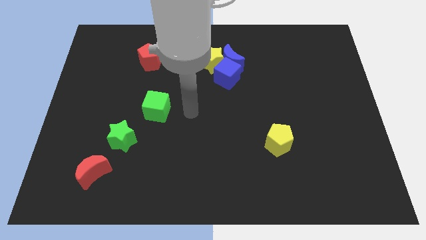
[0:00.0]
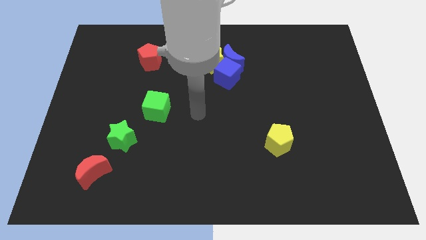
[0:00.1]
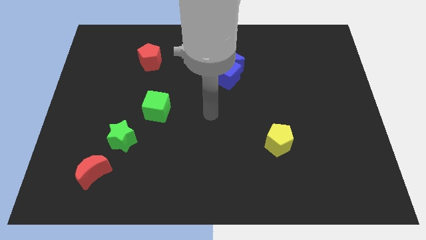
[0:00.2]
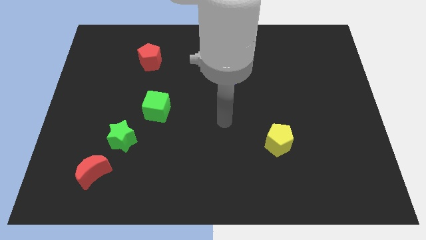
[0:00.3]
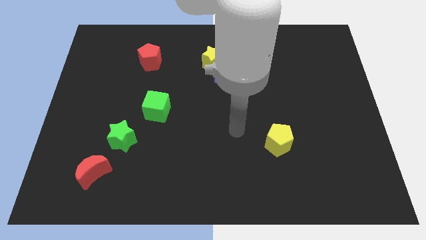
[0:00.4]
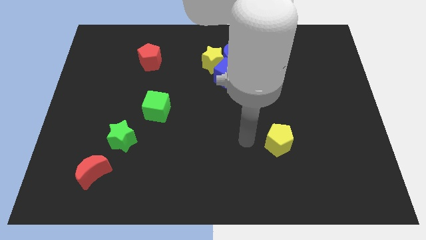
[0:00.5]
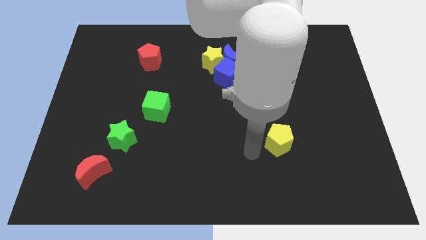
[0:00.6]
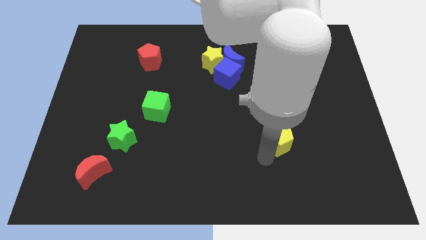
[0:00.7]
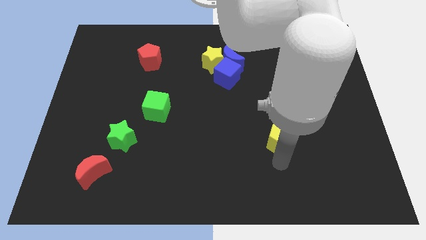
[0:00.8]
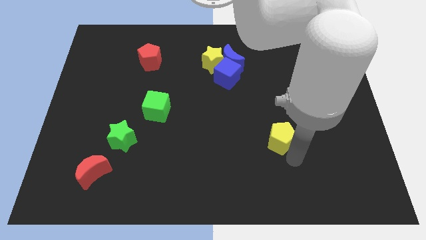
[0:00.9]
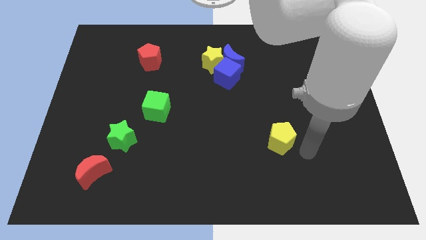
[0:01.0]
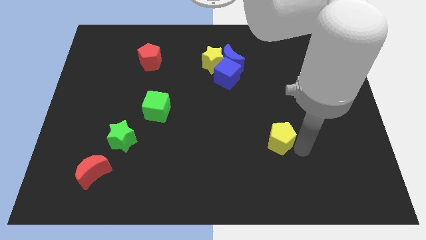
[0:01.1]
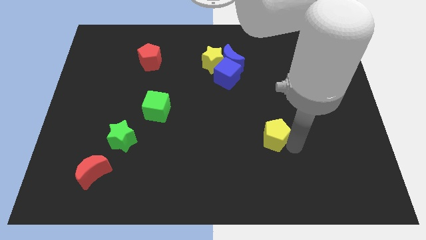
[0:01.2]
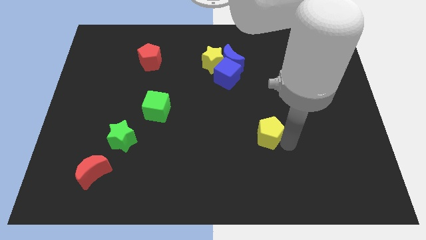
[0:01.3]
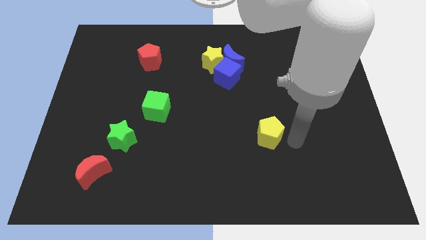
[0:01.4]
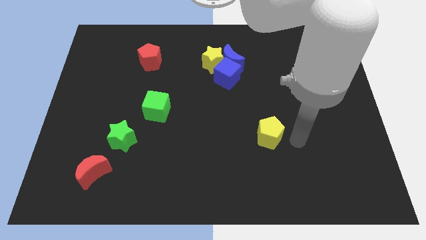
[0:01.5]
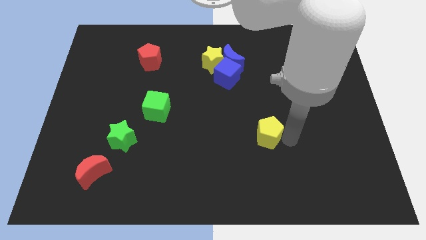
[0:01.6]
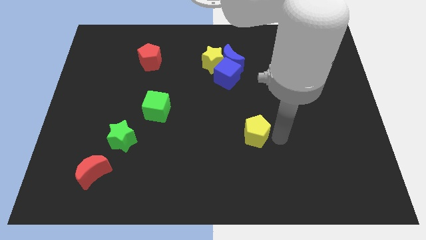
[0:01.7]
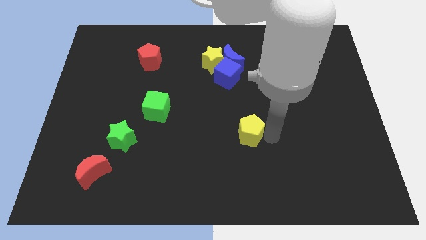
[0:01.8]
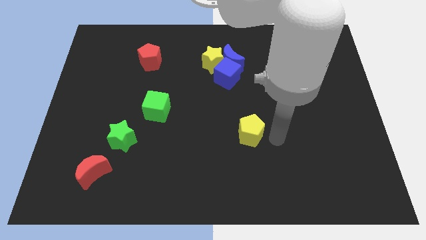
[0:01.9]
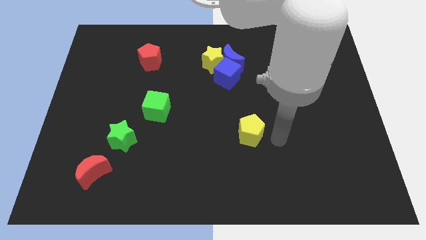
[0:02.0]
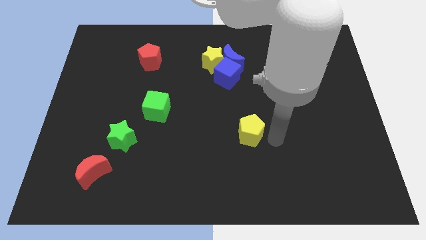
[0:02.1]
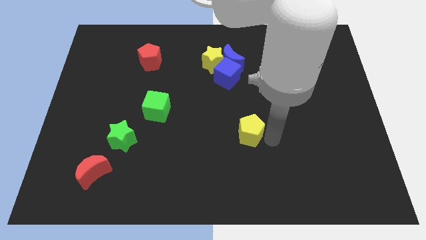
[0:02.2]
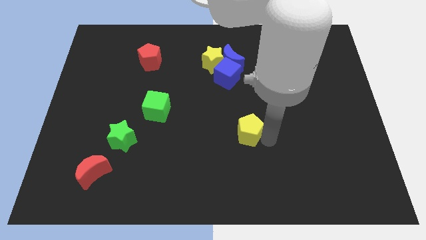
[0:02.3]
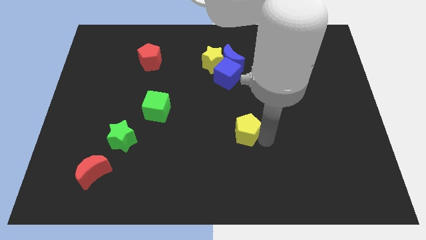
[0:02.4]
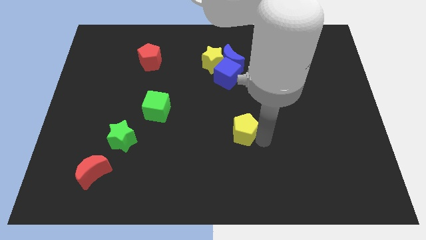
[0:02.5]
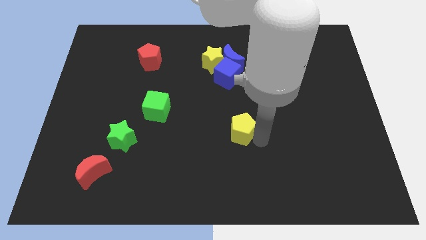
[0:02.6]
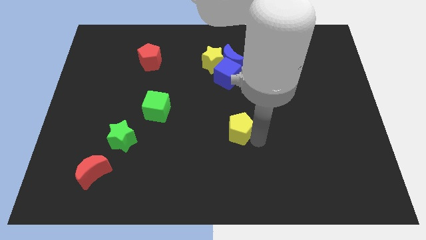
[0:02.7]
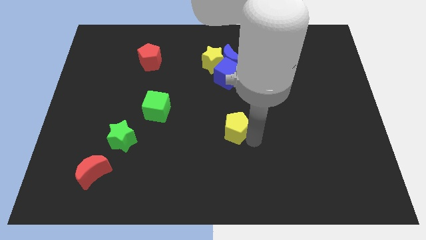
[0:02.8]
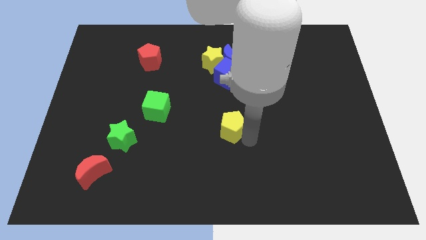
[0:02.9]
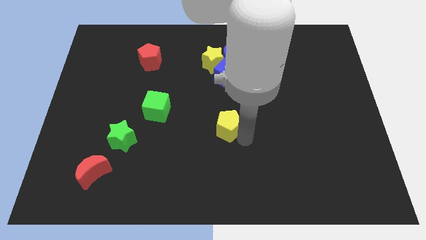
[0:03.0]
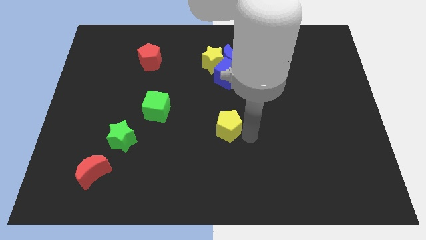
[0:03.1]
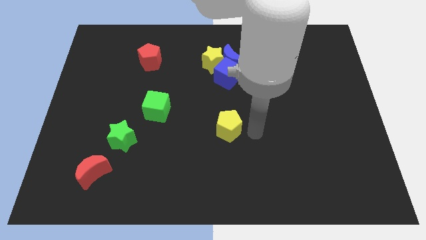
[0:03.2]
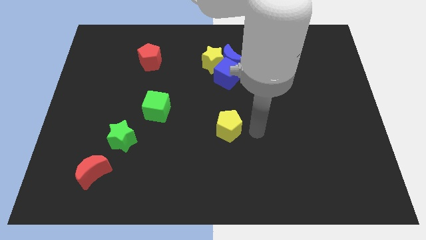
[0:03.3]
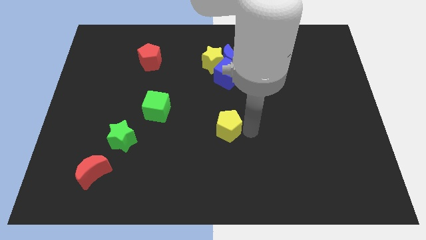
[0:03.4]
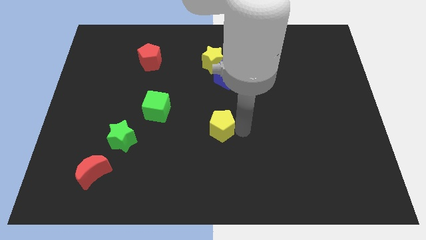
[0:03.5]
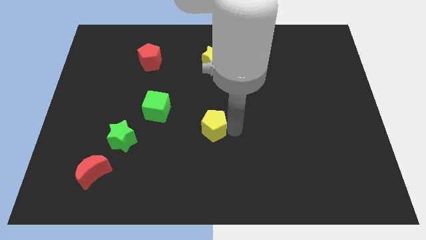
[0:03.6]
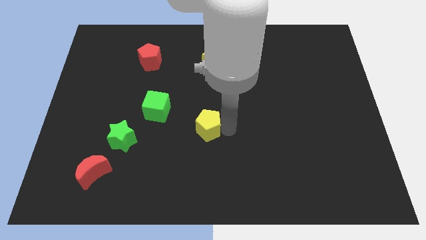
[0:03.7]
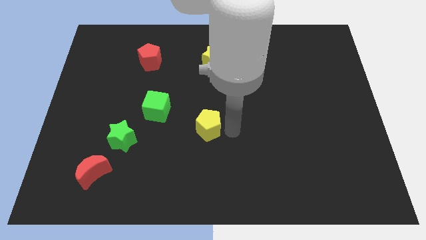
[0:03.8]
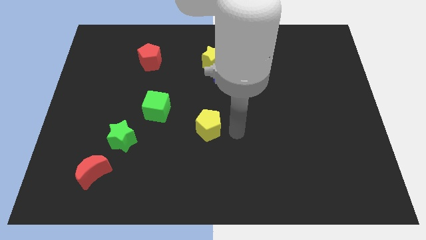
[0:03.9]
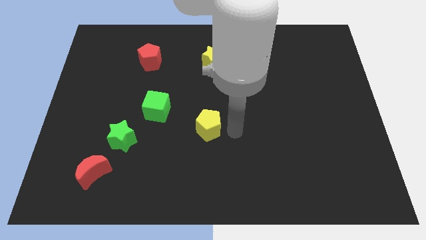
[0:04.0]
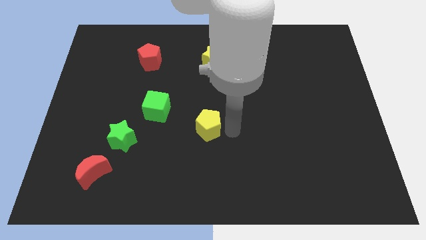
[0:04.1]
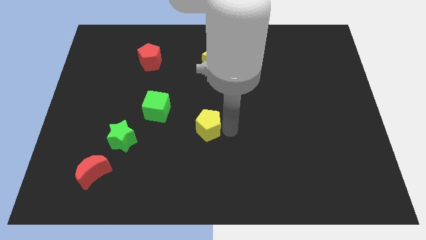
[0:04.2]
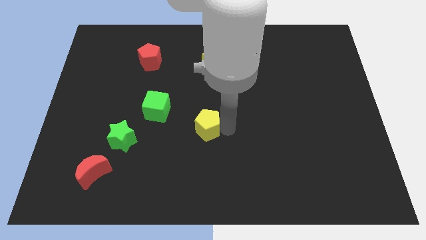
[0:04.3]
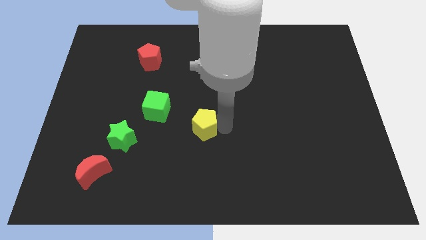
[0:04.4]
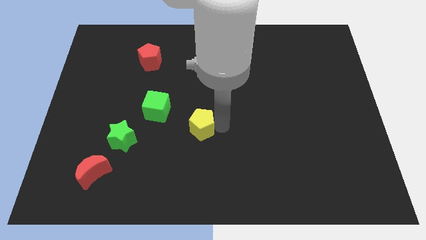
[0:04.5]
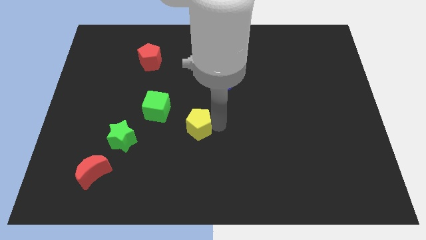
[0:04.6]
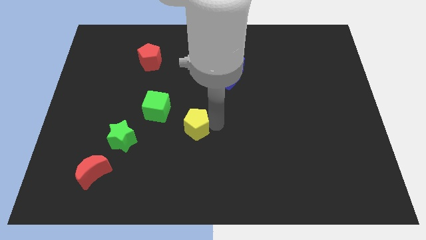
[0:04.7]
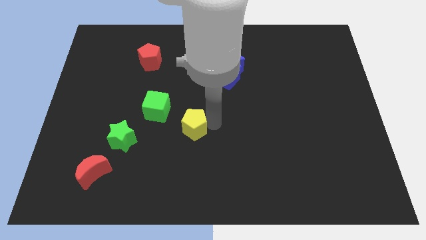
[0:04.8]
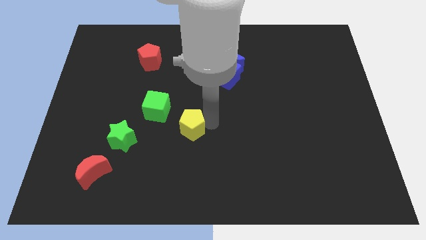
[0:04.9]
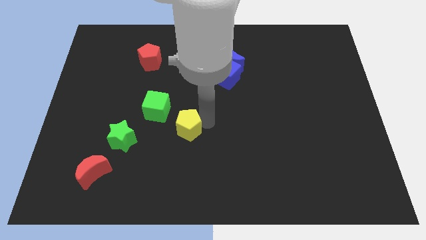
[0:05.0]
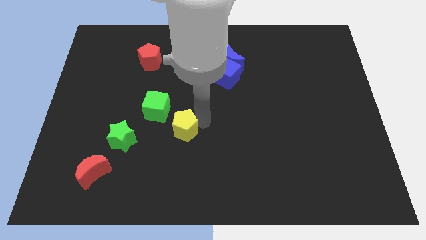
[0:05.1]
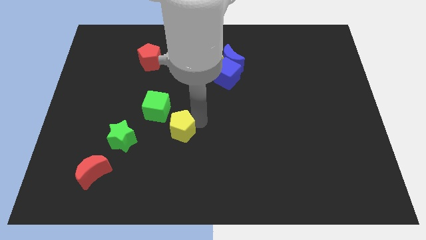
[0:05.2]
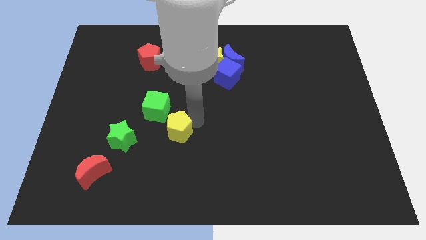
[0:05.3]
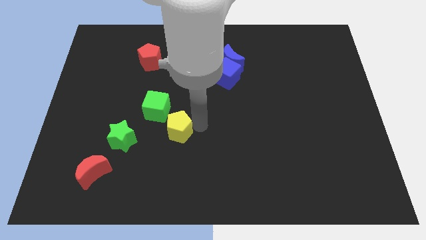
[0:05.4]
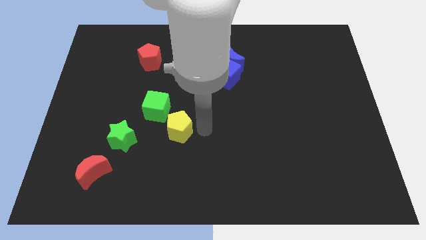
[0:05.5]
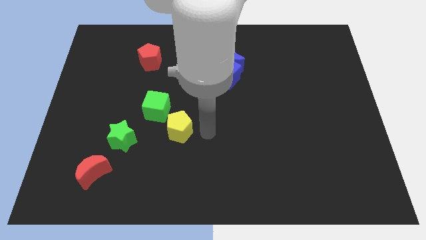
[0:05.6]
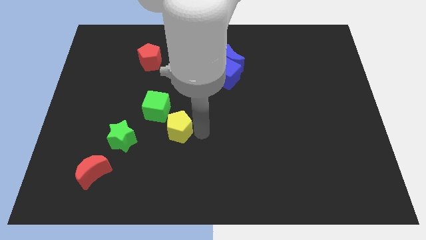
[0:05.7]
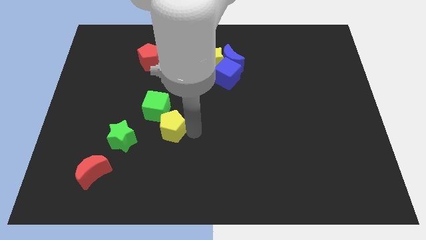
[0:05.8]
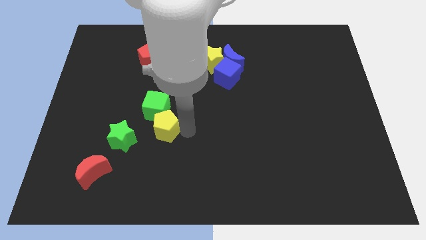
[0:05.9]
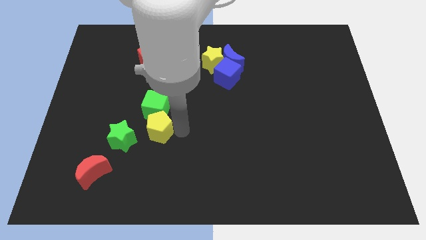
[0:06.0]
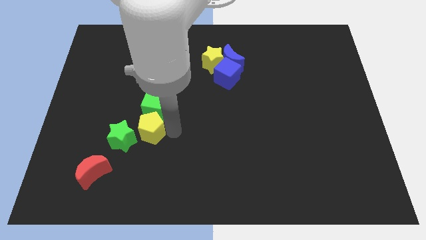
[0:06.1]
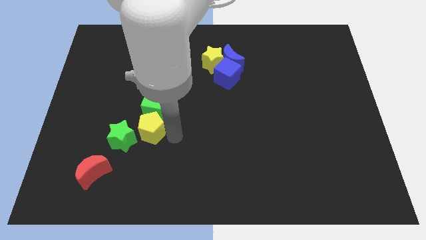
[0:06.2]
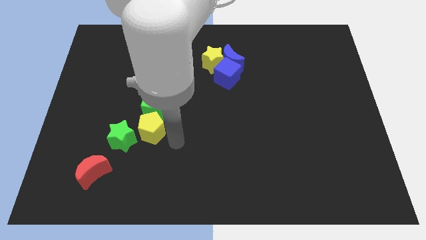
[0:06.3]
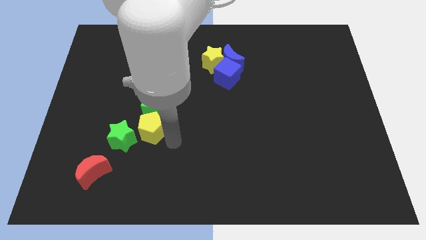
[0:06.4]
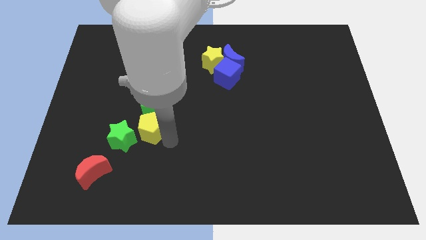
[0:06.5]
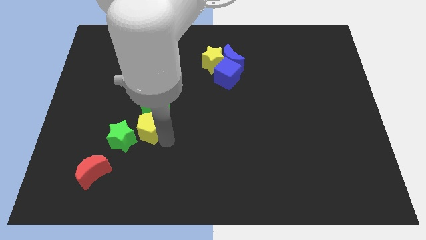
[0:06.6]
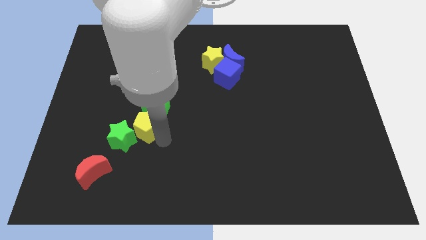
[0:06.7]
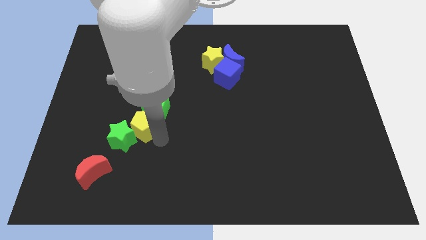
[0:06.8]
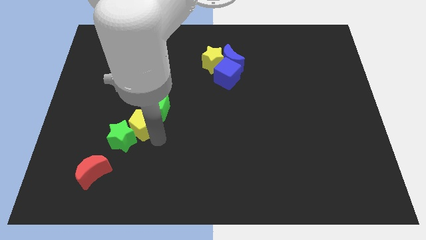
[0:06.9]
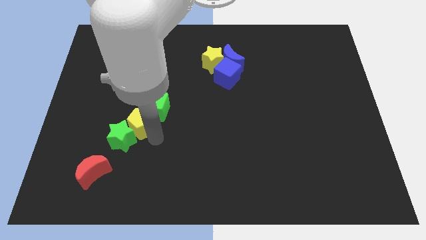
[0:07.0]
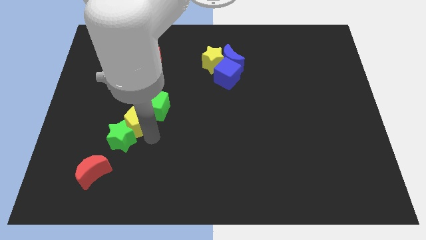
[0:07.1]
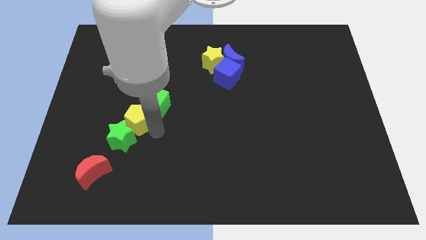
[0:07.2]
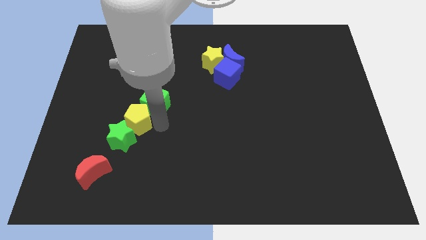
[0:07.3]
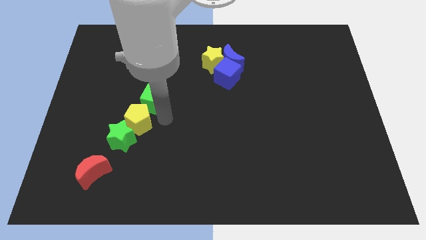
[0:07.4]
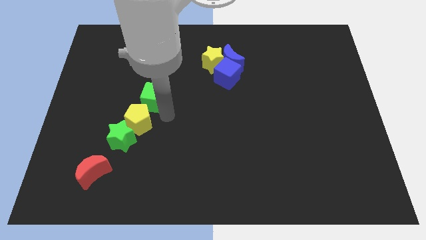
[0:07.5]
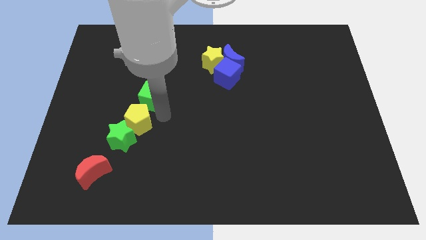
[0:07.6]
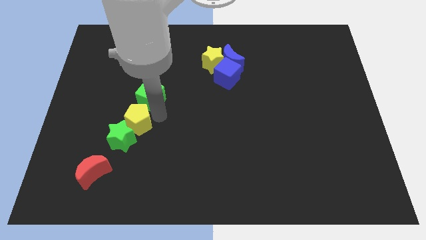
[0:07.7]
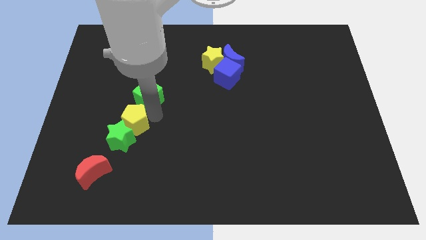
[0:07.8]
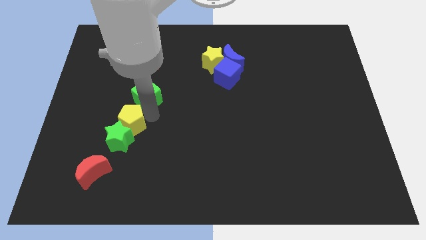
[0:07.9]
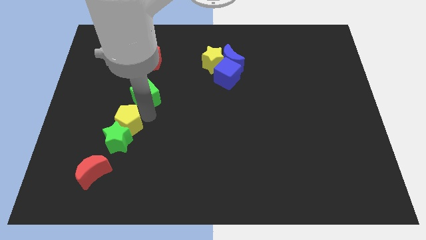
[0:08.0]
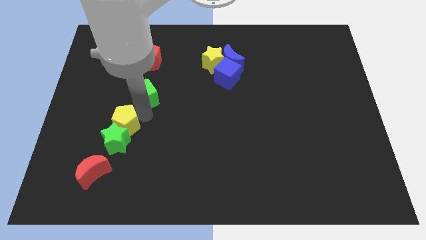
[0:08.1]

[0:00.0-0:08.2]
put the yellow pentagon above the red moon
